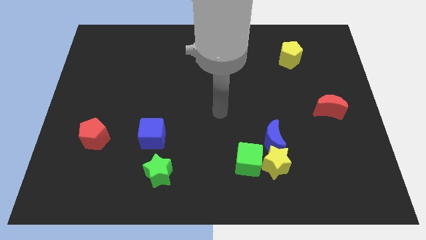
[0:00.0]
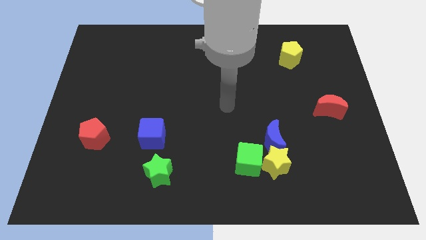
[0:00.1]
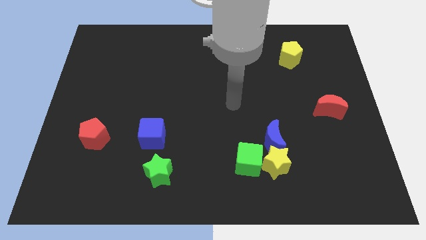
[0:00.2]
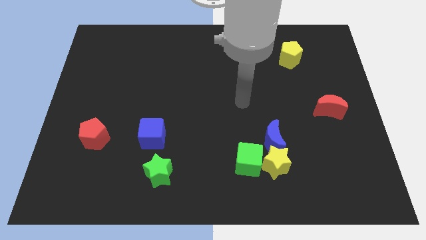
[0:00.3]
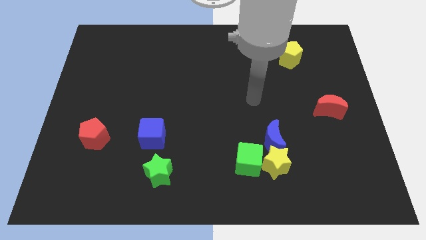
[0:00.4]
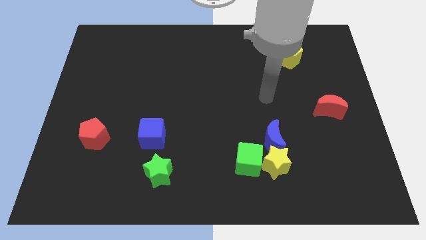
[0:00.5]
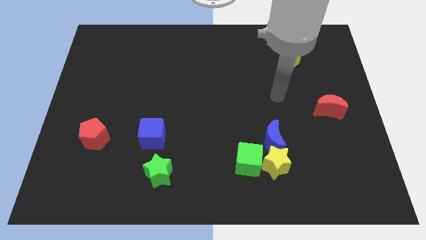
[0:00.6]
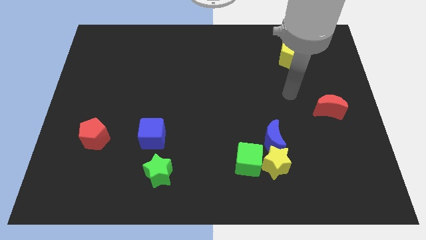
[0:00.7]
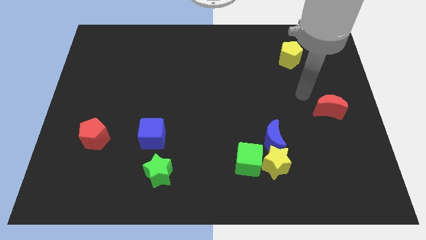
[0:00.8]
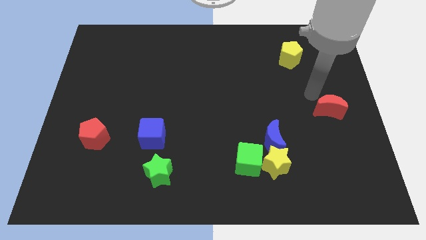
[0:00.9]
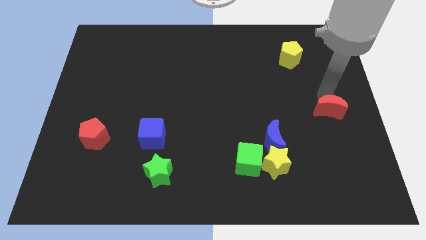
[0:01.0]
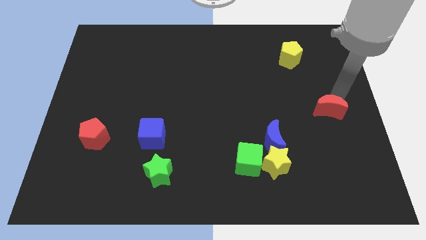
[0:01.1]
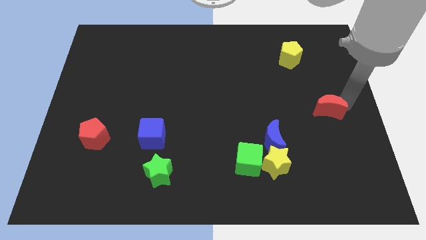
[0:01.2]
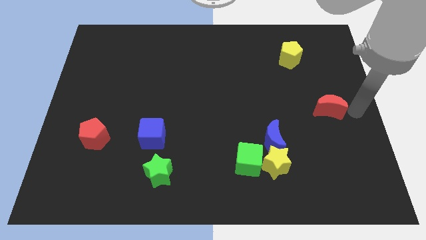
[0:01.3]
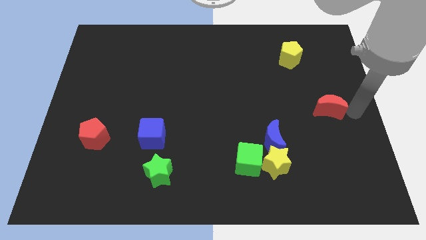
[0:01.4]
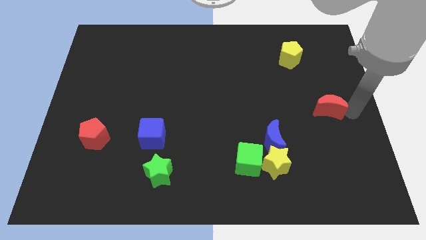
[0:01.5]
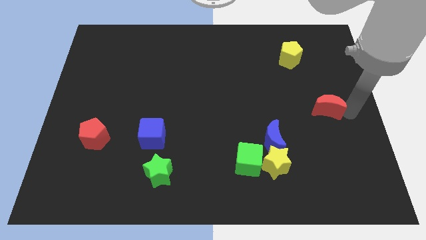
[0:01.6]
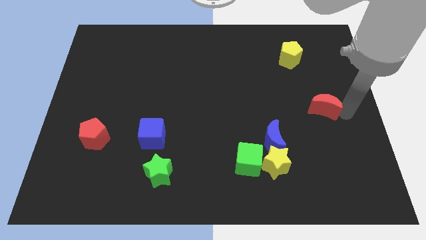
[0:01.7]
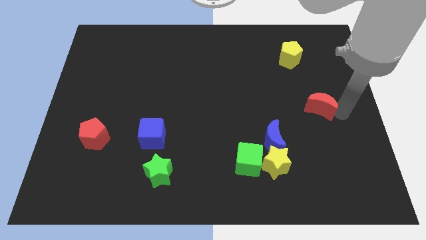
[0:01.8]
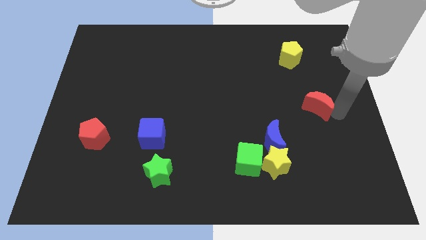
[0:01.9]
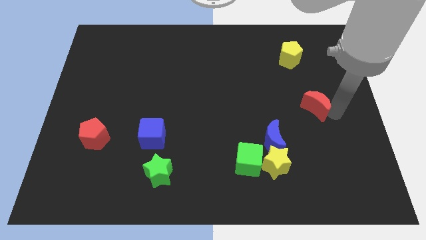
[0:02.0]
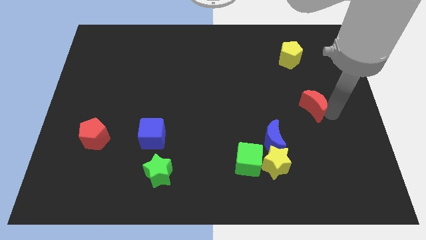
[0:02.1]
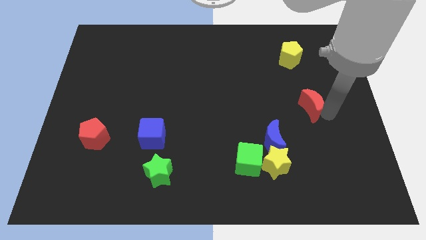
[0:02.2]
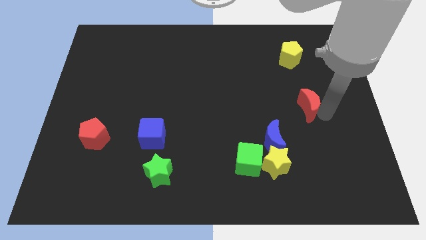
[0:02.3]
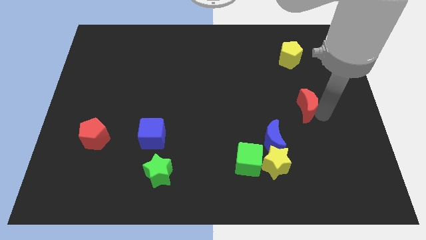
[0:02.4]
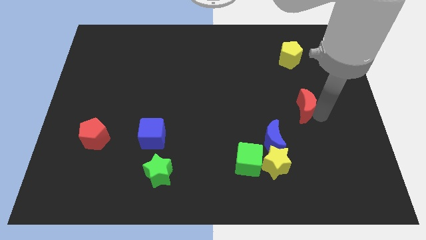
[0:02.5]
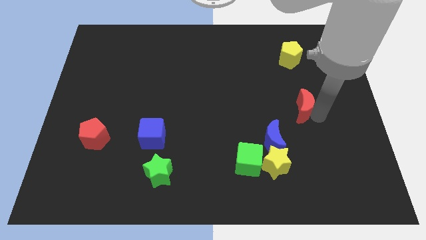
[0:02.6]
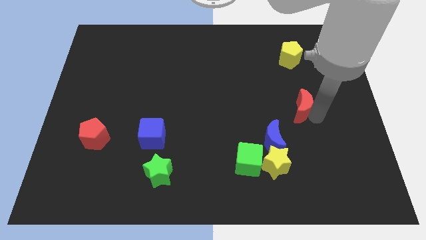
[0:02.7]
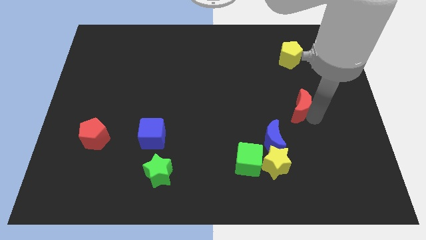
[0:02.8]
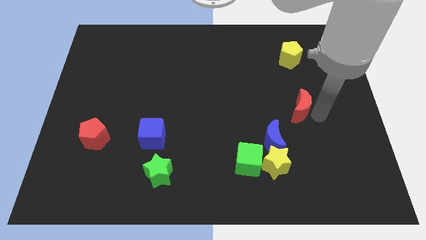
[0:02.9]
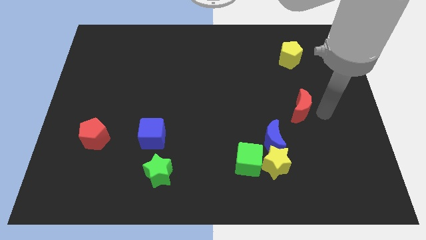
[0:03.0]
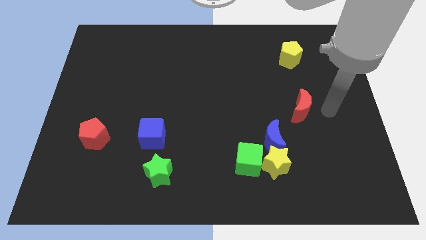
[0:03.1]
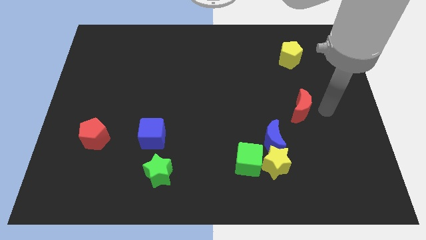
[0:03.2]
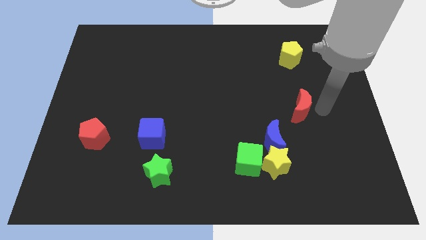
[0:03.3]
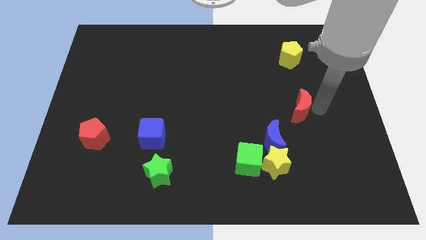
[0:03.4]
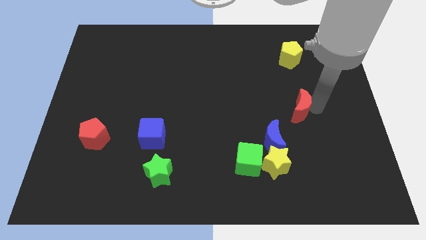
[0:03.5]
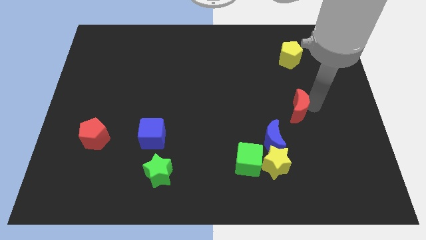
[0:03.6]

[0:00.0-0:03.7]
move the red moon somewhat left

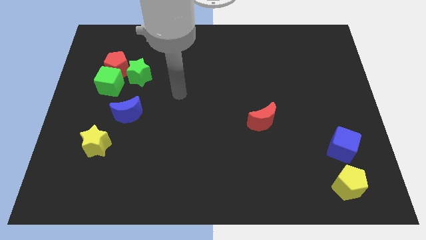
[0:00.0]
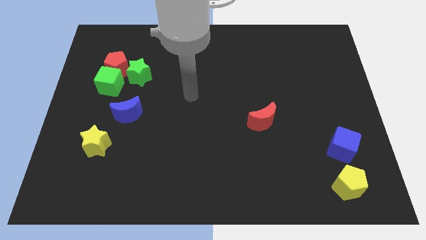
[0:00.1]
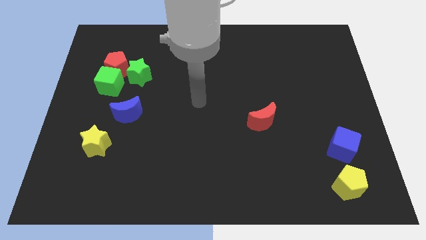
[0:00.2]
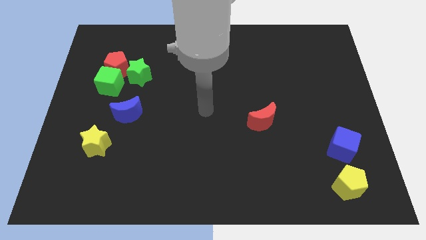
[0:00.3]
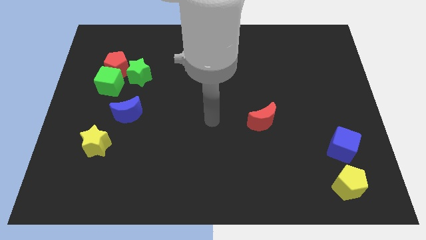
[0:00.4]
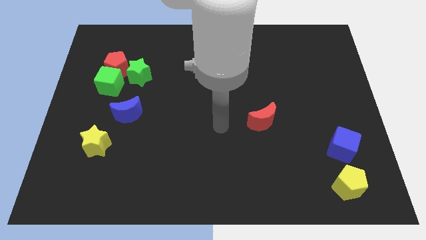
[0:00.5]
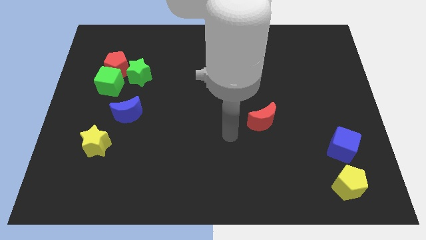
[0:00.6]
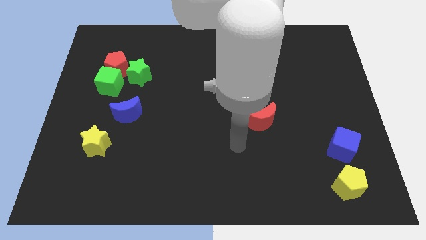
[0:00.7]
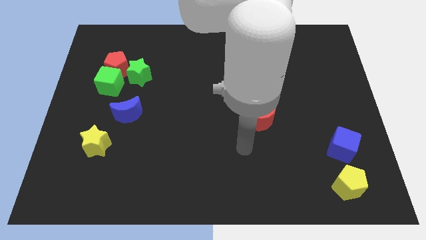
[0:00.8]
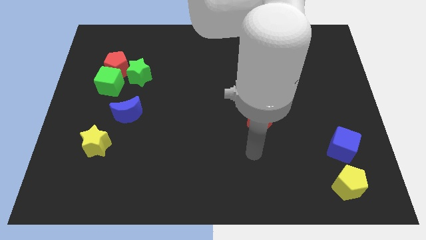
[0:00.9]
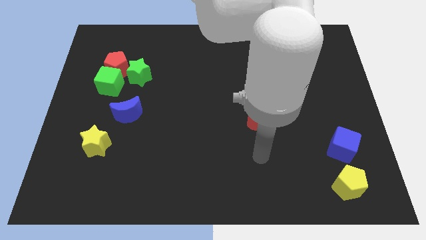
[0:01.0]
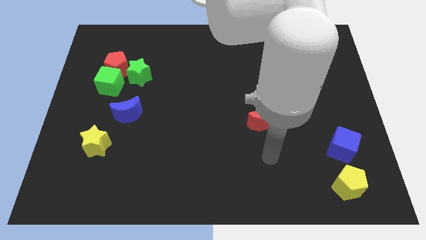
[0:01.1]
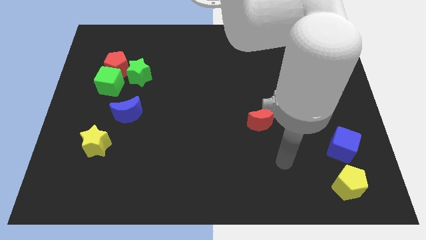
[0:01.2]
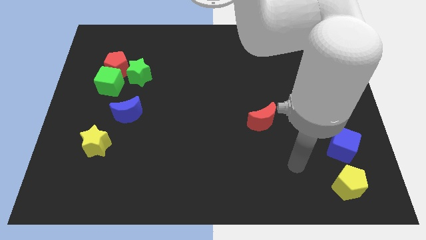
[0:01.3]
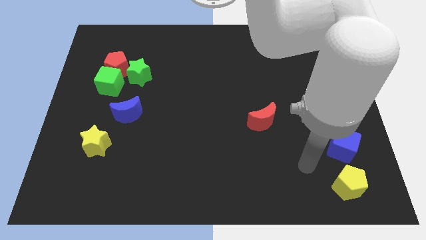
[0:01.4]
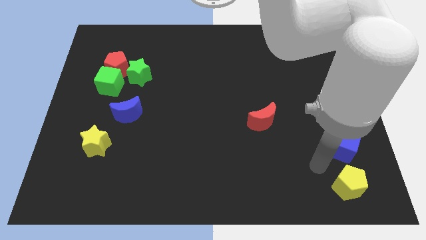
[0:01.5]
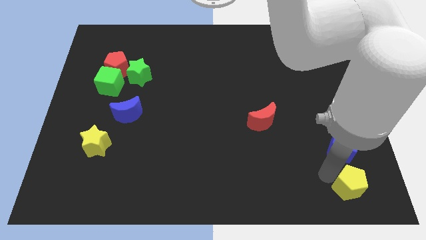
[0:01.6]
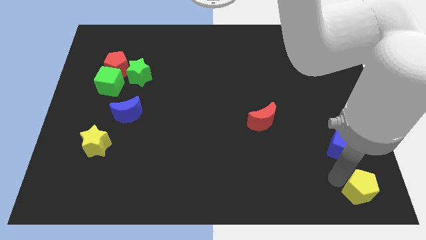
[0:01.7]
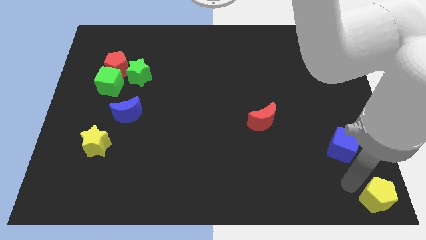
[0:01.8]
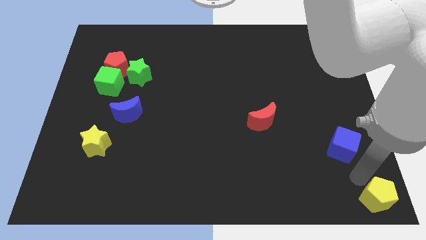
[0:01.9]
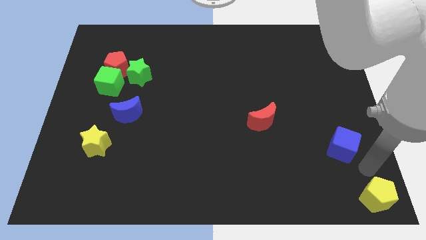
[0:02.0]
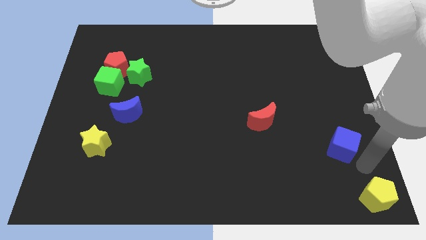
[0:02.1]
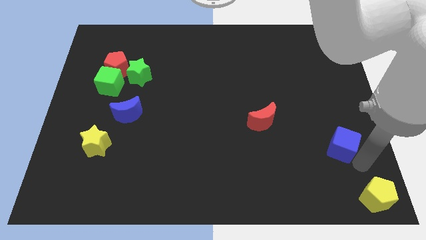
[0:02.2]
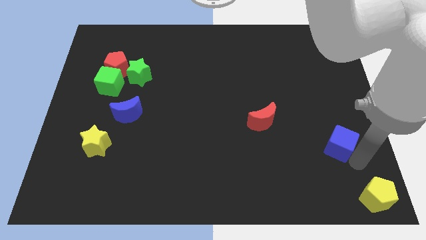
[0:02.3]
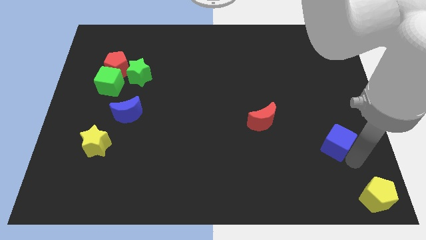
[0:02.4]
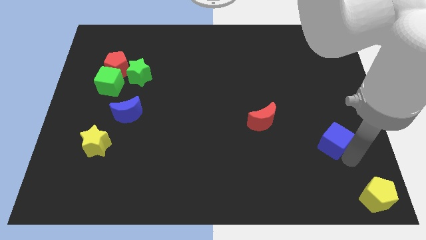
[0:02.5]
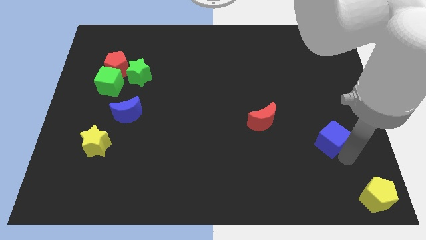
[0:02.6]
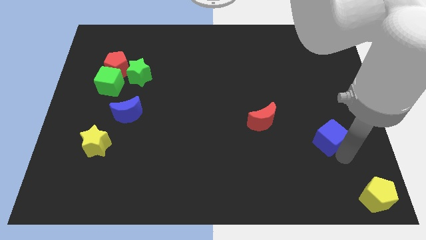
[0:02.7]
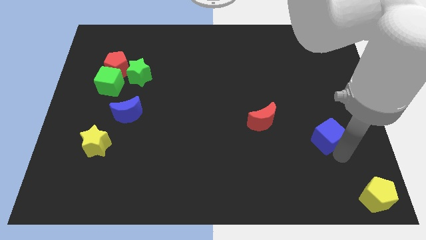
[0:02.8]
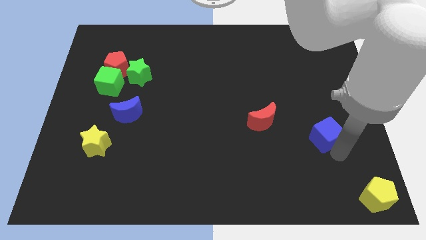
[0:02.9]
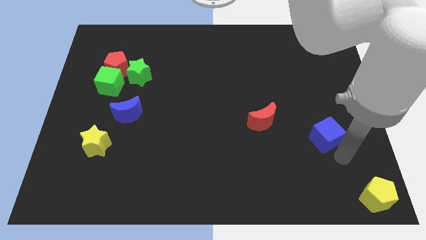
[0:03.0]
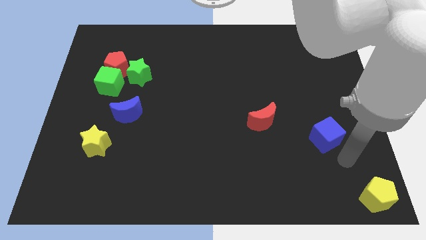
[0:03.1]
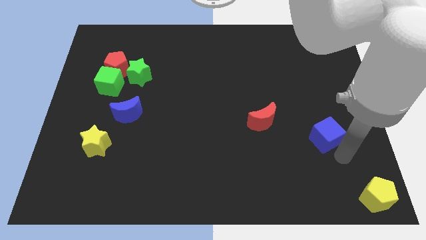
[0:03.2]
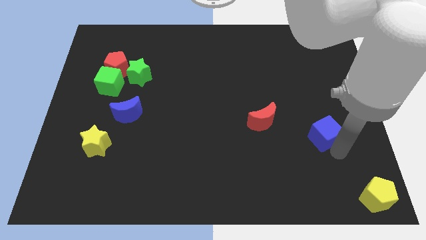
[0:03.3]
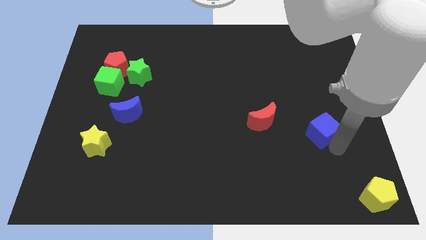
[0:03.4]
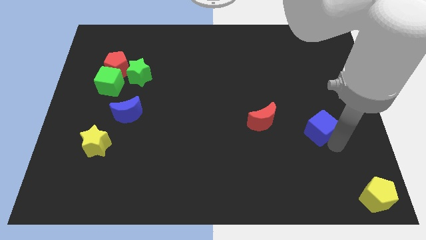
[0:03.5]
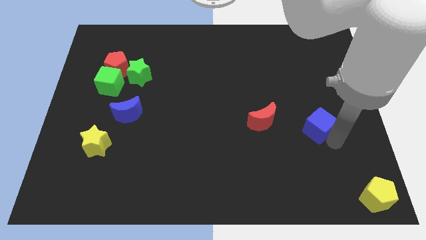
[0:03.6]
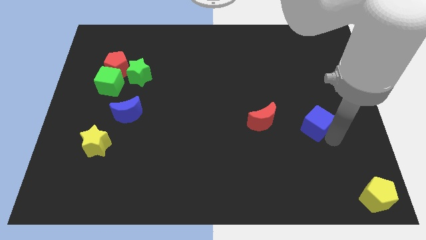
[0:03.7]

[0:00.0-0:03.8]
slightly slide the blue cube diagonally up and to the left

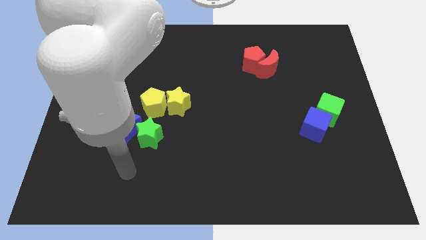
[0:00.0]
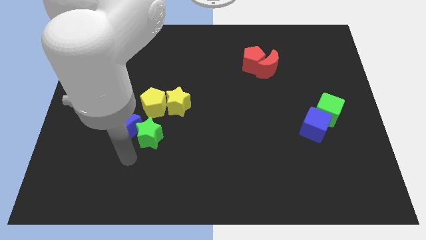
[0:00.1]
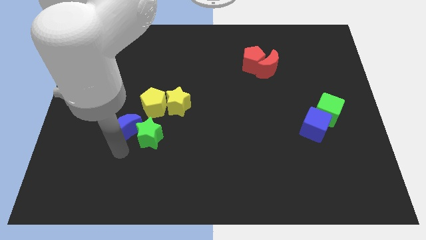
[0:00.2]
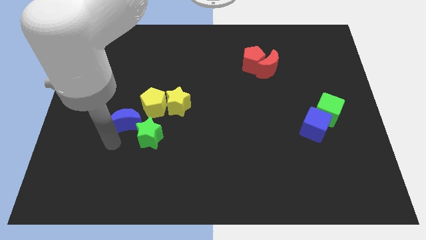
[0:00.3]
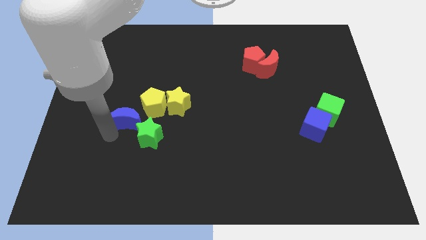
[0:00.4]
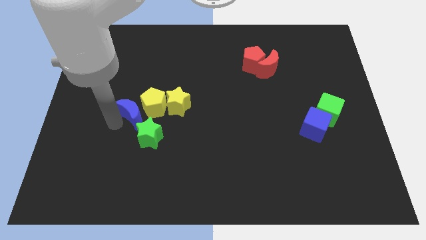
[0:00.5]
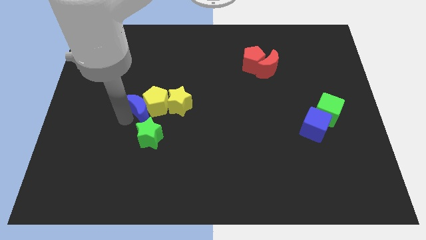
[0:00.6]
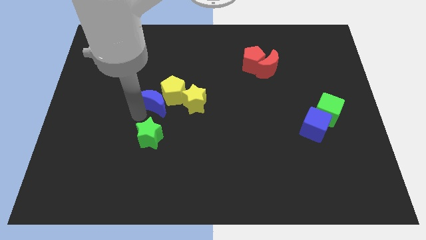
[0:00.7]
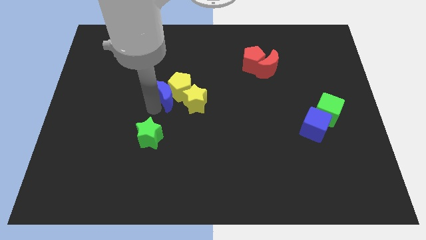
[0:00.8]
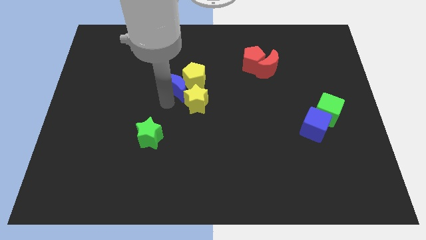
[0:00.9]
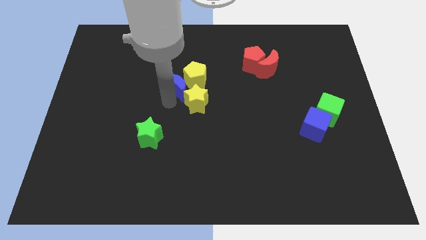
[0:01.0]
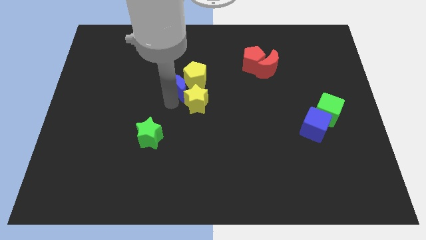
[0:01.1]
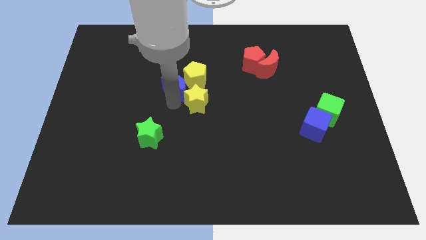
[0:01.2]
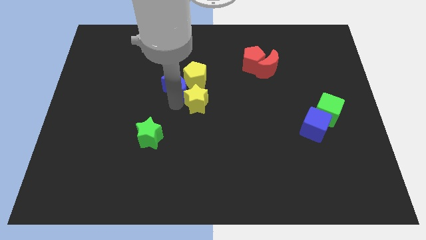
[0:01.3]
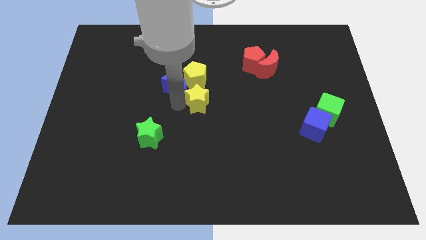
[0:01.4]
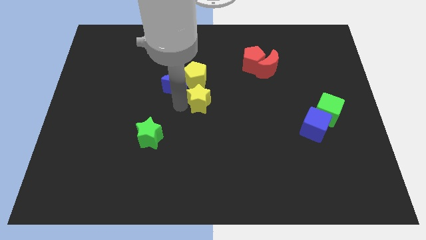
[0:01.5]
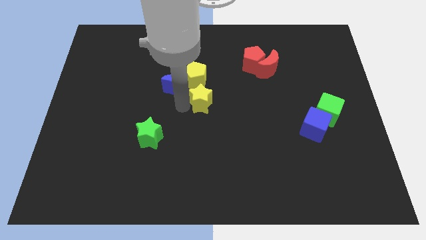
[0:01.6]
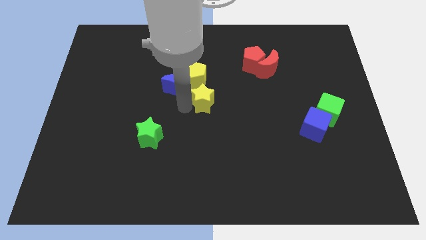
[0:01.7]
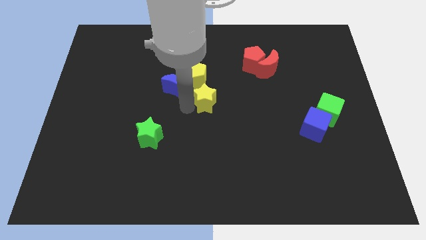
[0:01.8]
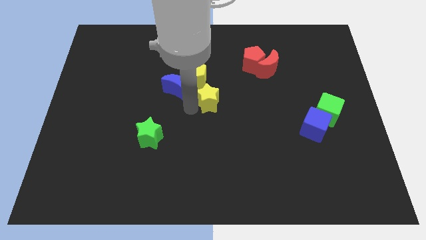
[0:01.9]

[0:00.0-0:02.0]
move the yellow star slightly right
